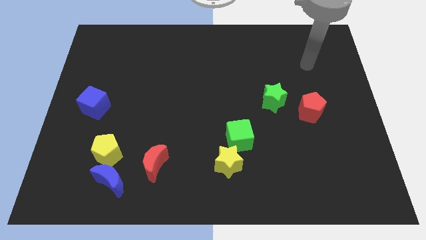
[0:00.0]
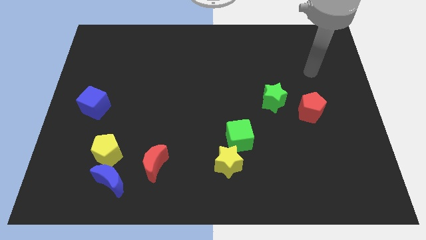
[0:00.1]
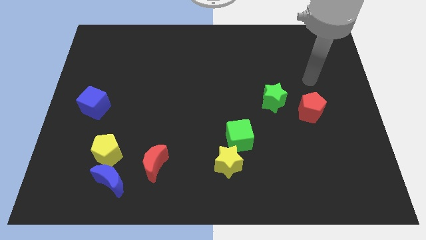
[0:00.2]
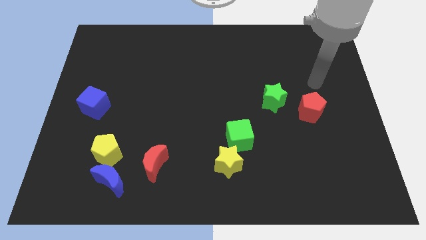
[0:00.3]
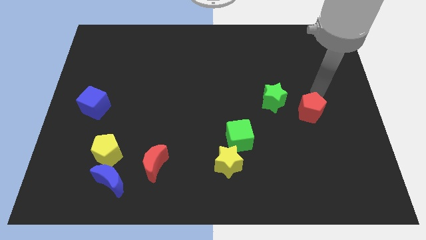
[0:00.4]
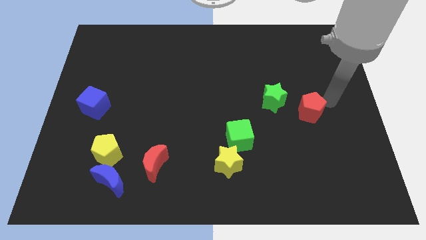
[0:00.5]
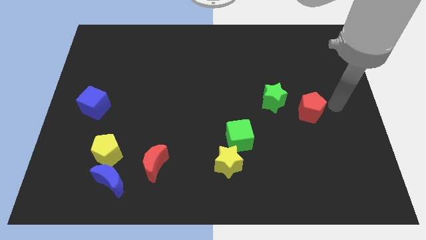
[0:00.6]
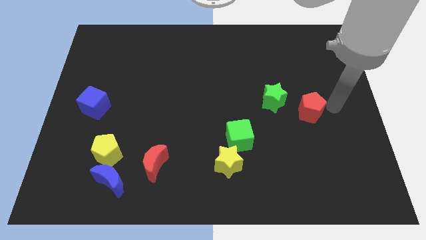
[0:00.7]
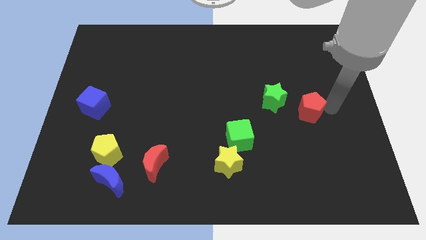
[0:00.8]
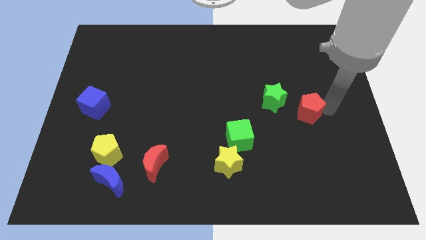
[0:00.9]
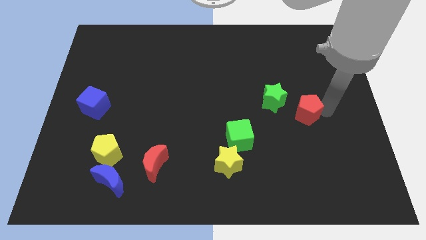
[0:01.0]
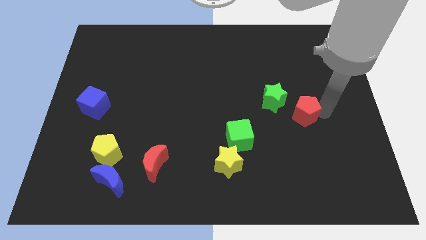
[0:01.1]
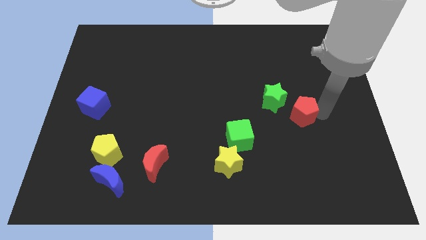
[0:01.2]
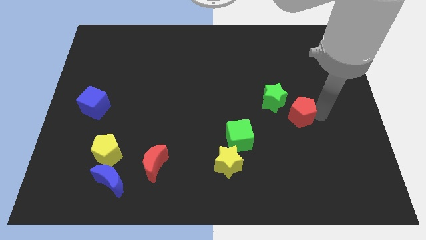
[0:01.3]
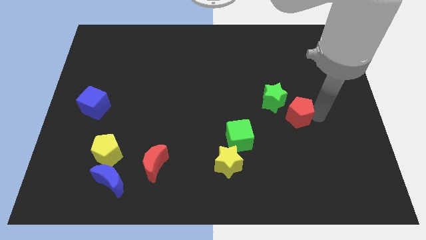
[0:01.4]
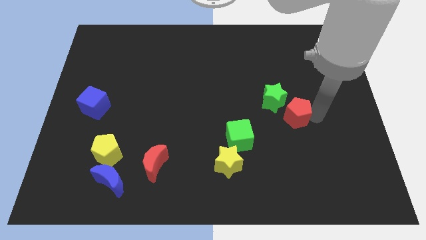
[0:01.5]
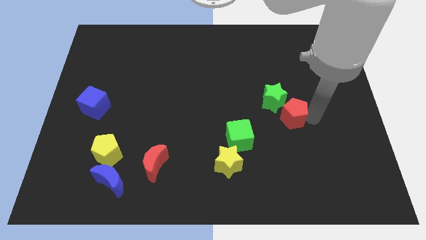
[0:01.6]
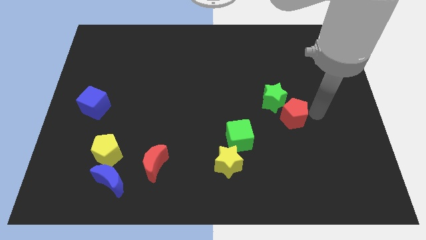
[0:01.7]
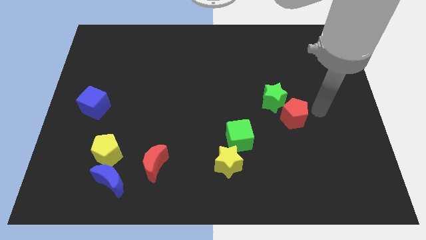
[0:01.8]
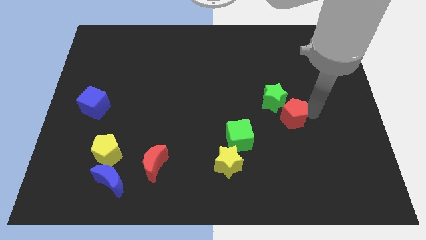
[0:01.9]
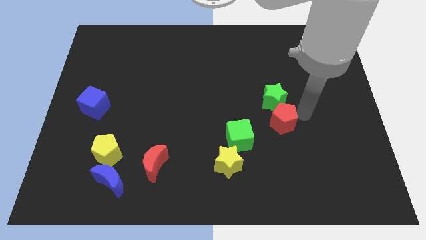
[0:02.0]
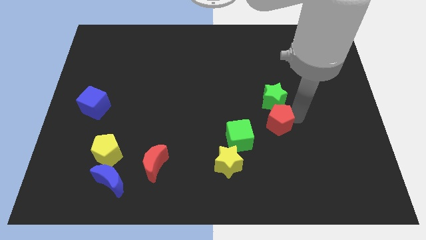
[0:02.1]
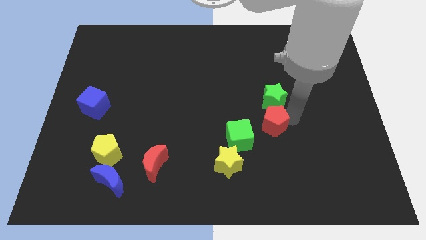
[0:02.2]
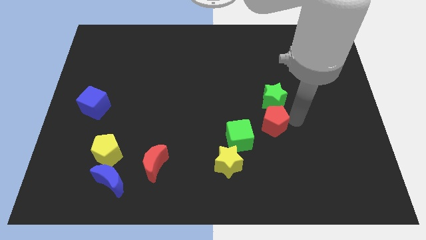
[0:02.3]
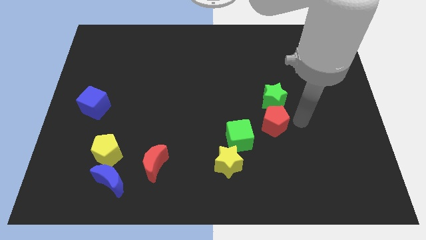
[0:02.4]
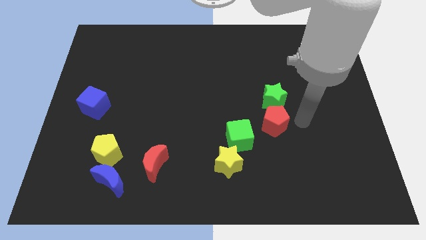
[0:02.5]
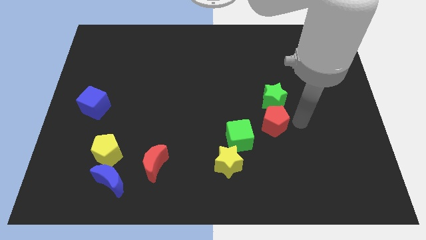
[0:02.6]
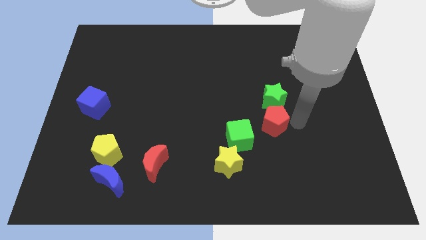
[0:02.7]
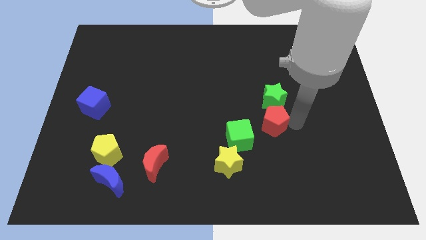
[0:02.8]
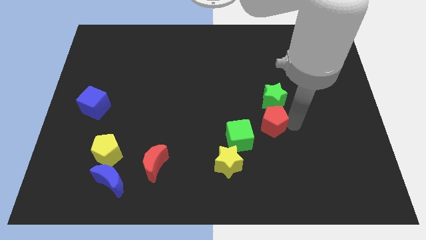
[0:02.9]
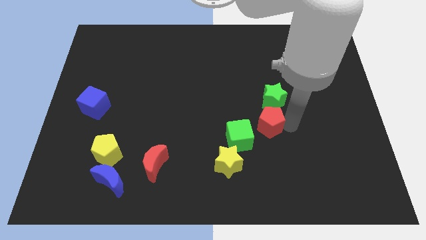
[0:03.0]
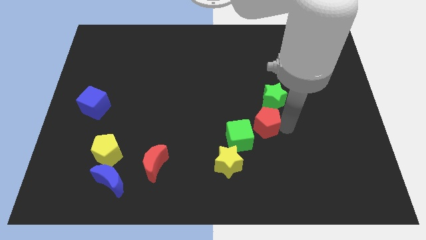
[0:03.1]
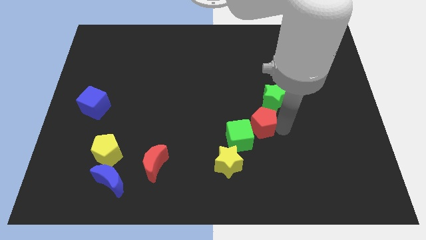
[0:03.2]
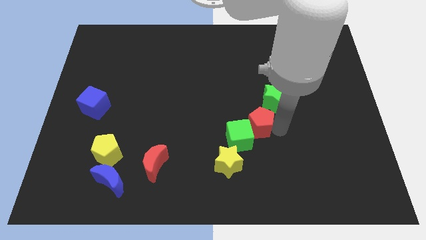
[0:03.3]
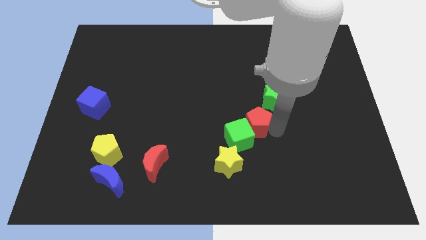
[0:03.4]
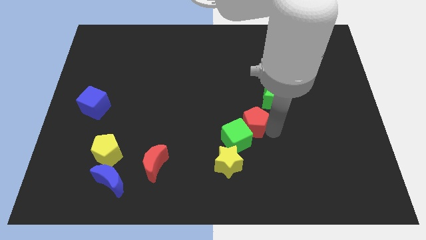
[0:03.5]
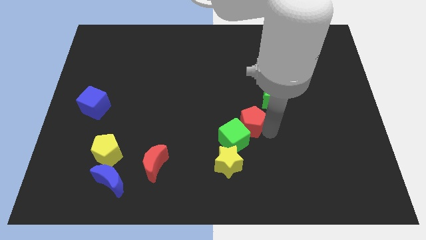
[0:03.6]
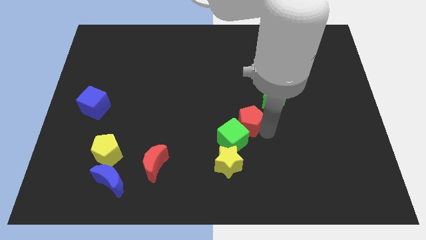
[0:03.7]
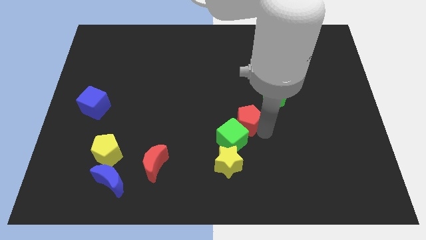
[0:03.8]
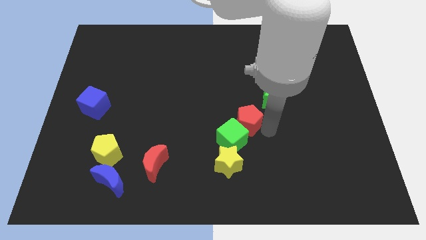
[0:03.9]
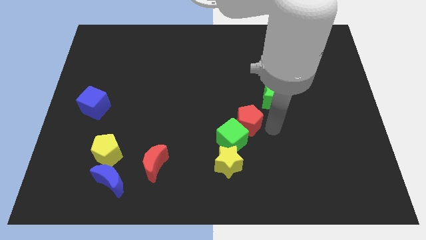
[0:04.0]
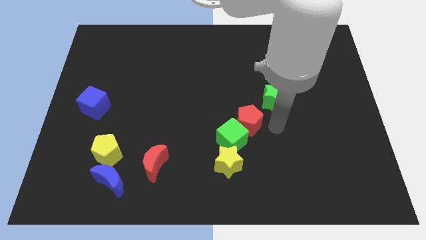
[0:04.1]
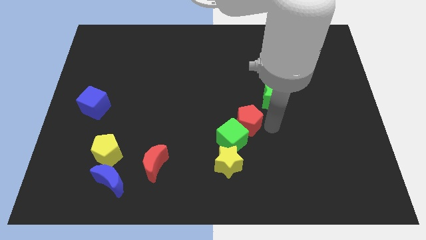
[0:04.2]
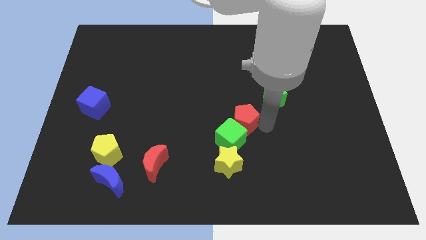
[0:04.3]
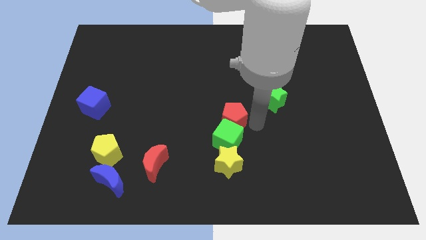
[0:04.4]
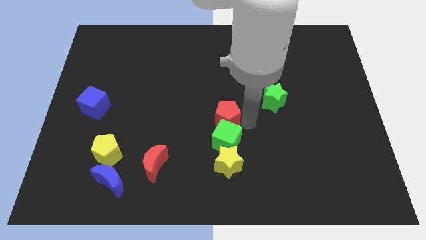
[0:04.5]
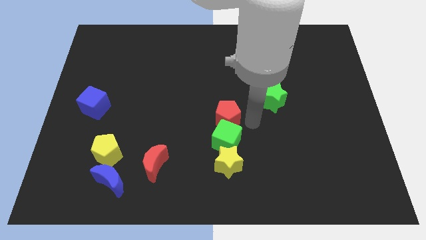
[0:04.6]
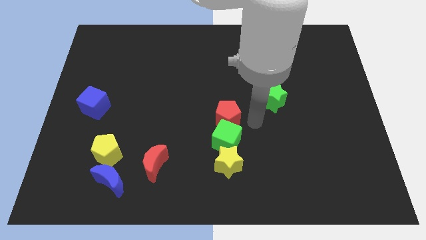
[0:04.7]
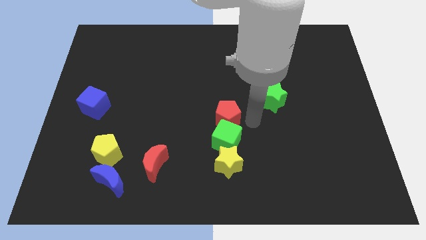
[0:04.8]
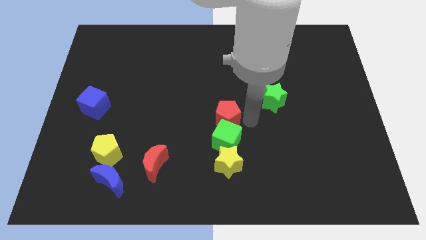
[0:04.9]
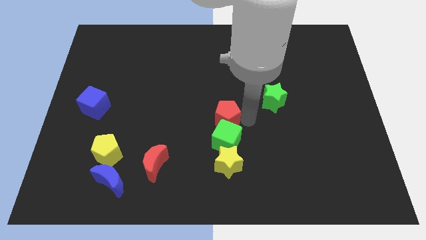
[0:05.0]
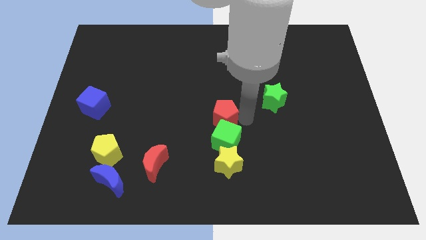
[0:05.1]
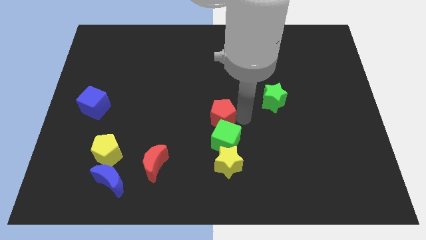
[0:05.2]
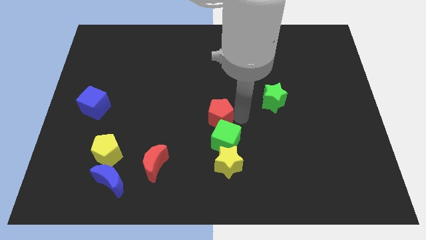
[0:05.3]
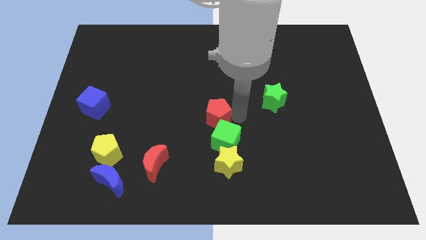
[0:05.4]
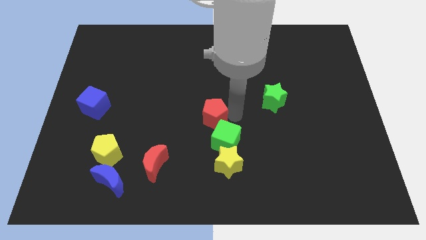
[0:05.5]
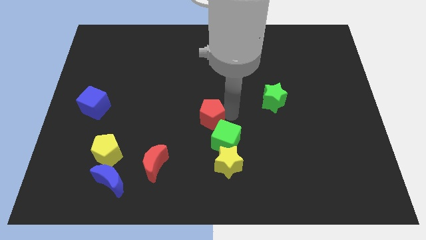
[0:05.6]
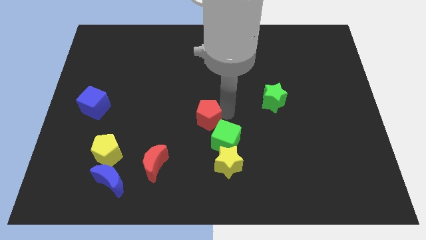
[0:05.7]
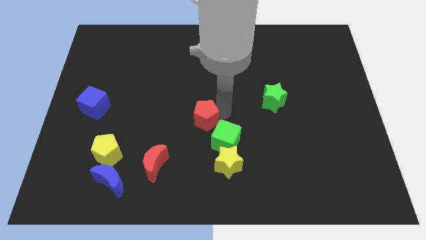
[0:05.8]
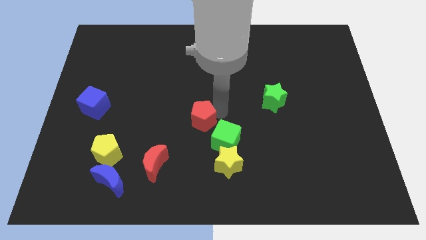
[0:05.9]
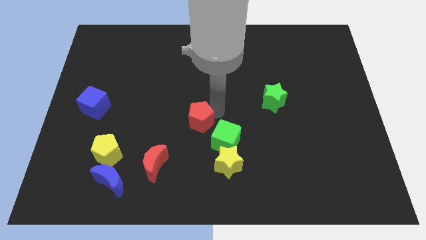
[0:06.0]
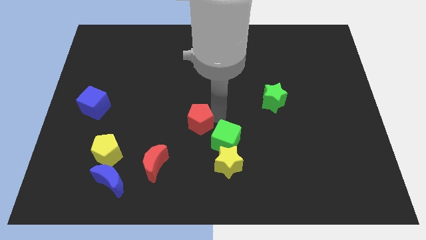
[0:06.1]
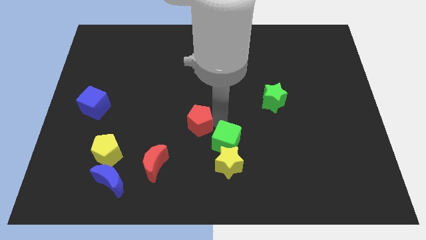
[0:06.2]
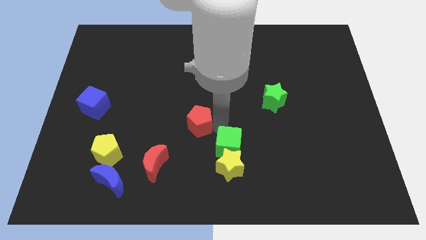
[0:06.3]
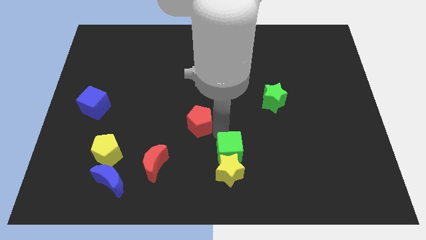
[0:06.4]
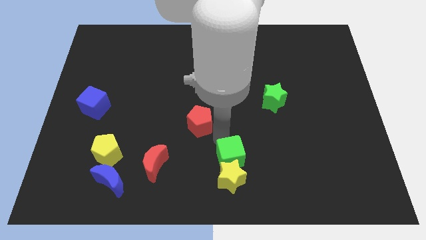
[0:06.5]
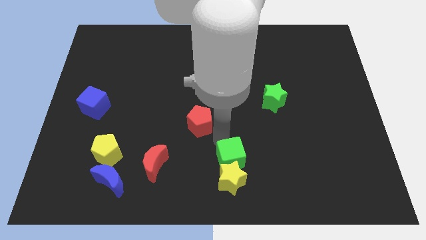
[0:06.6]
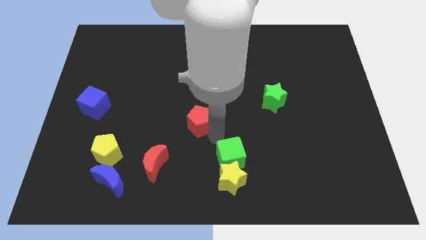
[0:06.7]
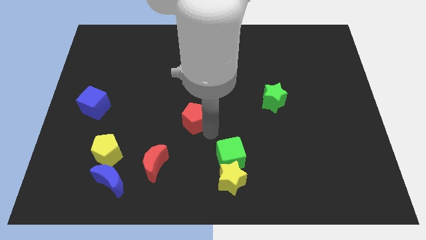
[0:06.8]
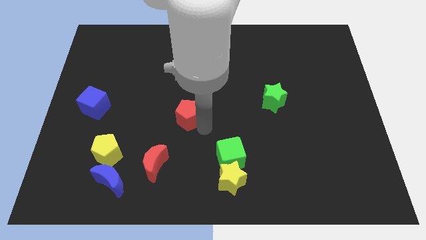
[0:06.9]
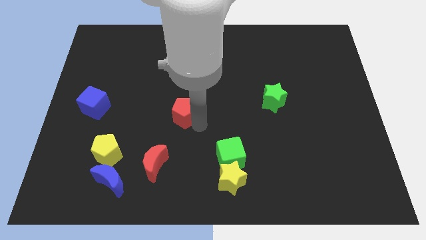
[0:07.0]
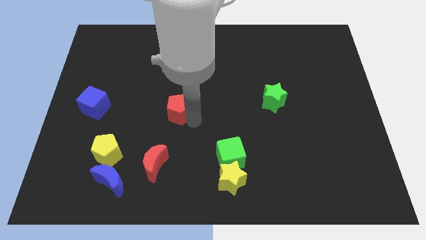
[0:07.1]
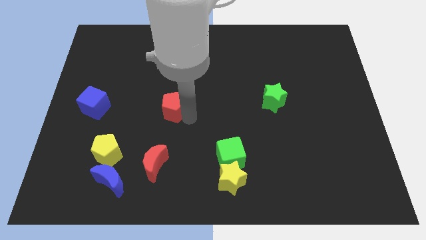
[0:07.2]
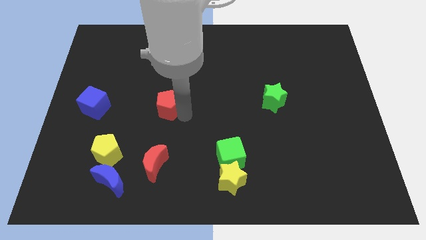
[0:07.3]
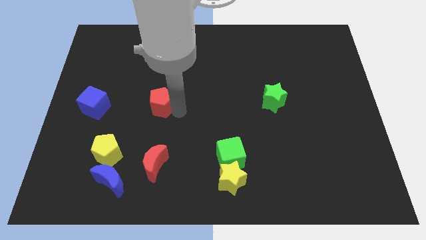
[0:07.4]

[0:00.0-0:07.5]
move the red pentagon to the right of the blue cube
